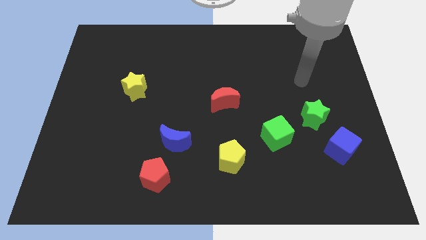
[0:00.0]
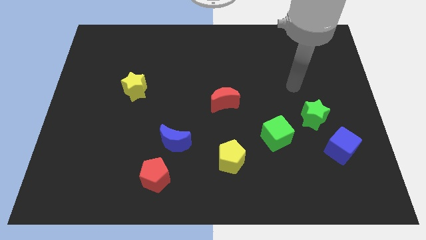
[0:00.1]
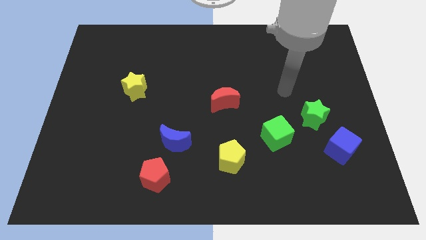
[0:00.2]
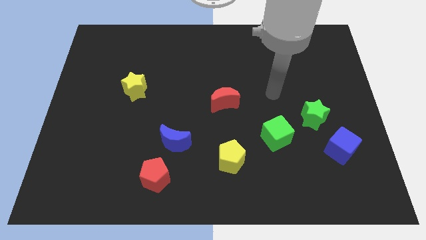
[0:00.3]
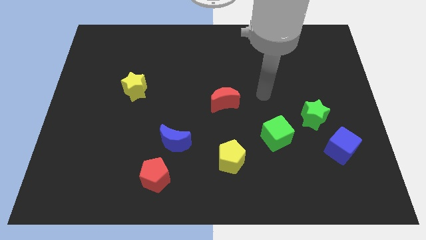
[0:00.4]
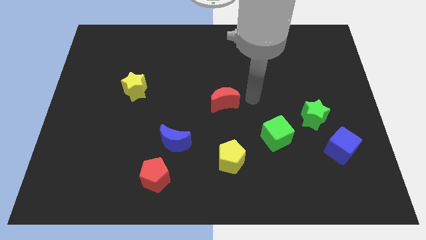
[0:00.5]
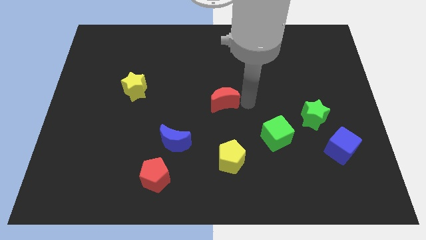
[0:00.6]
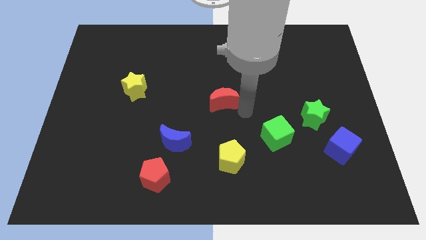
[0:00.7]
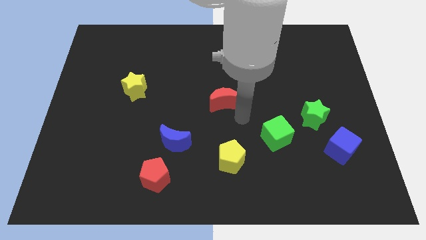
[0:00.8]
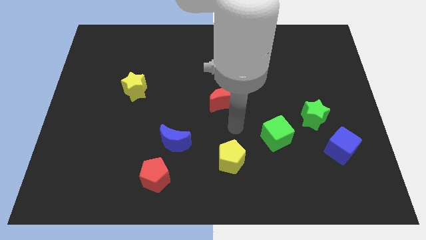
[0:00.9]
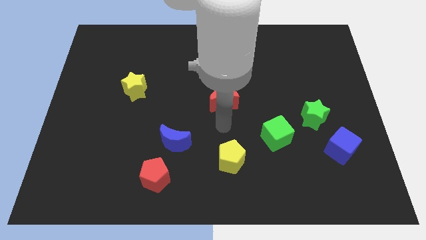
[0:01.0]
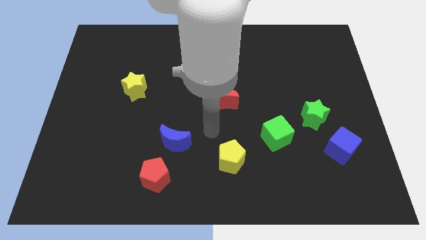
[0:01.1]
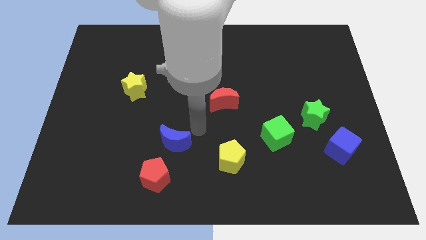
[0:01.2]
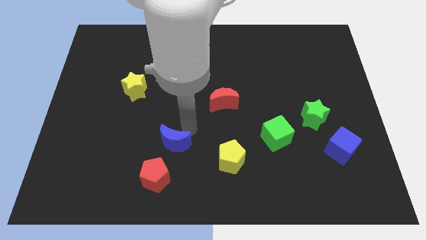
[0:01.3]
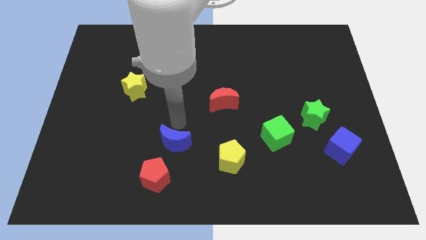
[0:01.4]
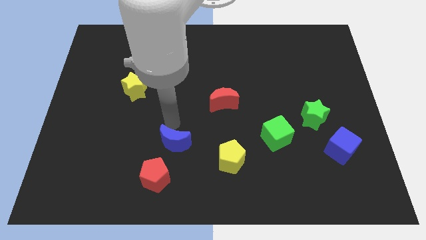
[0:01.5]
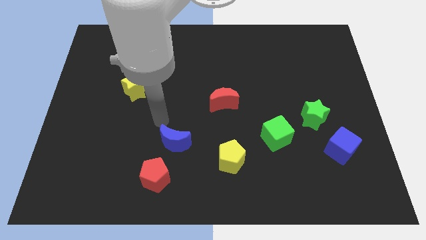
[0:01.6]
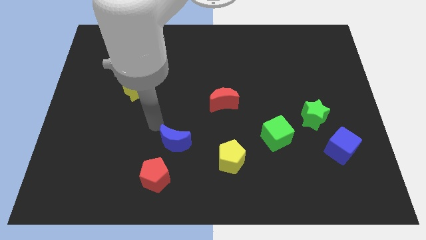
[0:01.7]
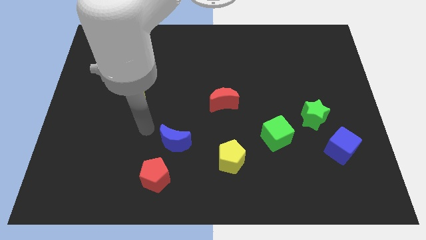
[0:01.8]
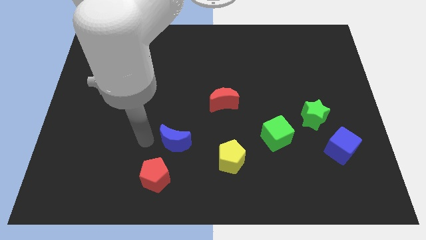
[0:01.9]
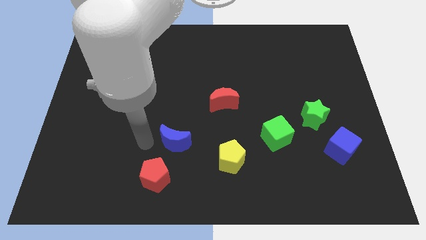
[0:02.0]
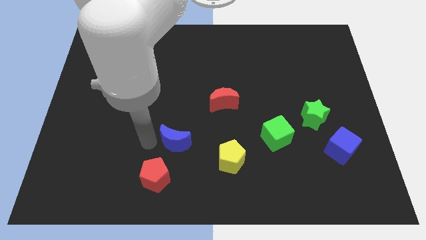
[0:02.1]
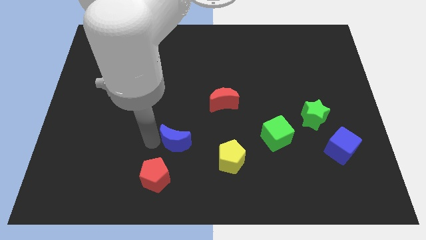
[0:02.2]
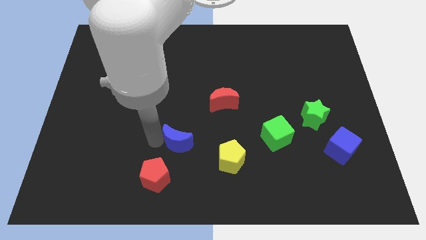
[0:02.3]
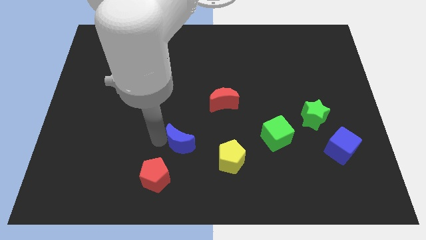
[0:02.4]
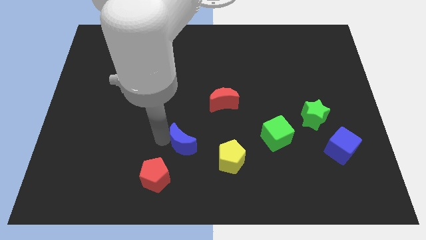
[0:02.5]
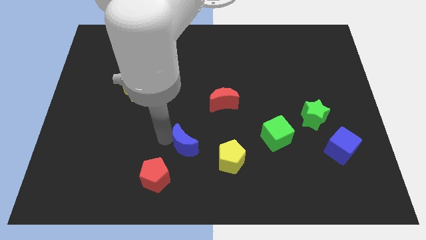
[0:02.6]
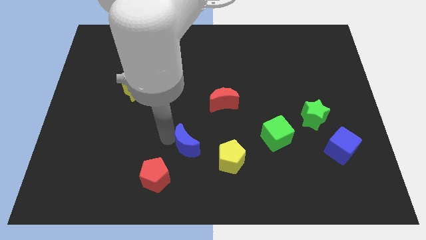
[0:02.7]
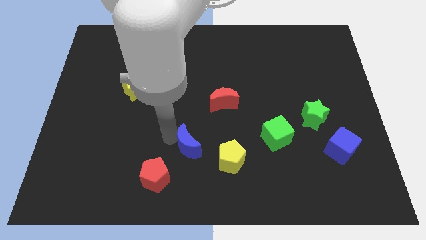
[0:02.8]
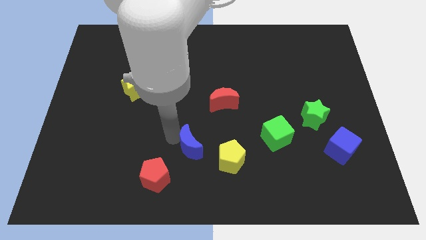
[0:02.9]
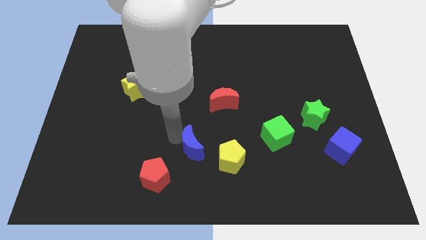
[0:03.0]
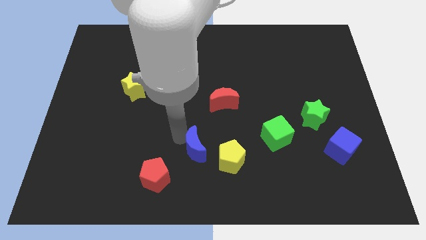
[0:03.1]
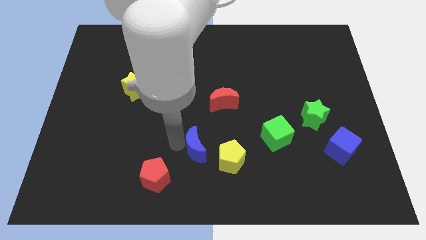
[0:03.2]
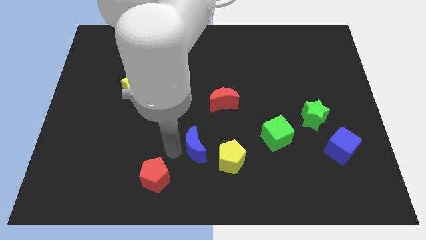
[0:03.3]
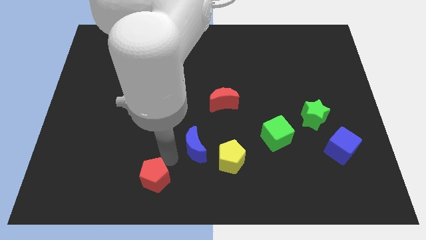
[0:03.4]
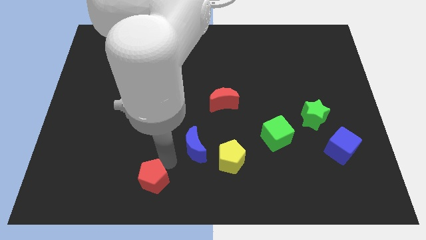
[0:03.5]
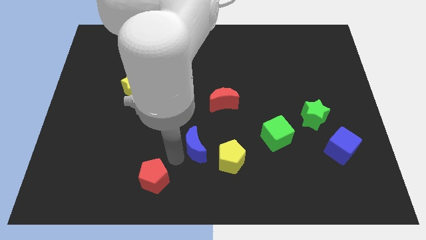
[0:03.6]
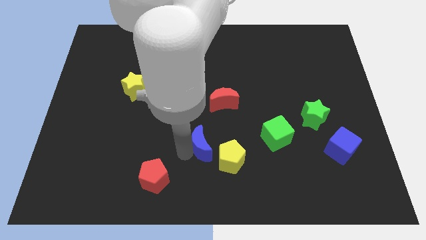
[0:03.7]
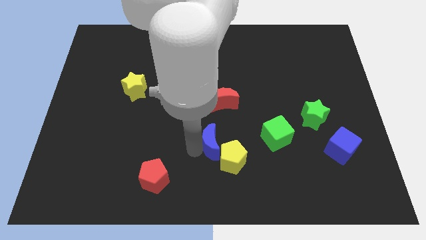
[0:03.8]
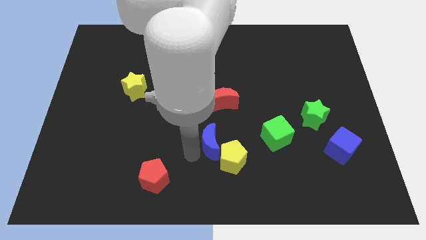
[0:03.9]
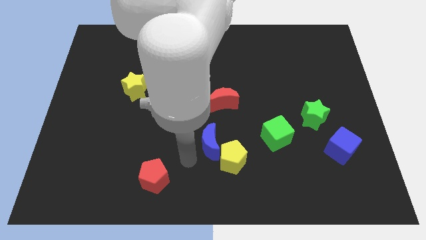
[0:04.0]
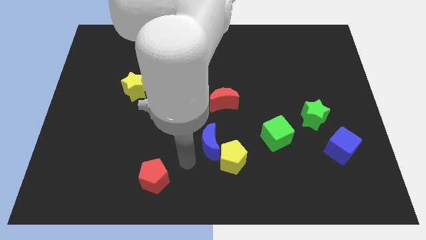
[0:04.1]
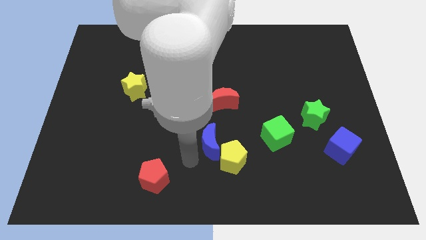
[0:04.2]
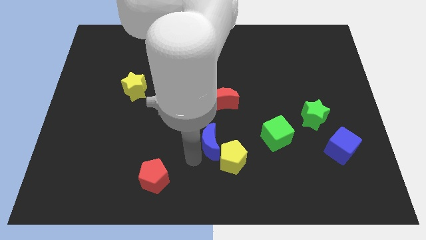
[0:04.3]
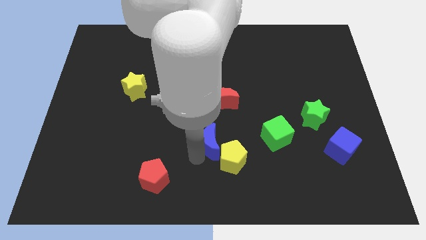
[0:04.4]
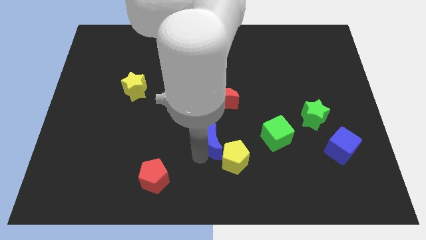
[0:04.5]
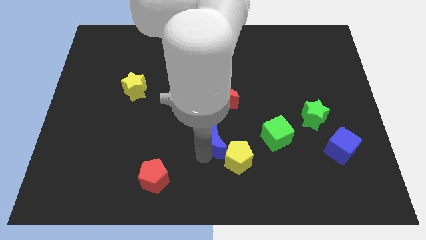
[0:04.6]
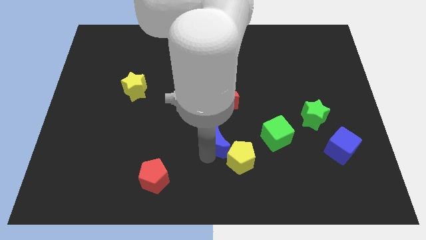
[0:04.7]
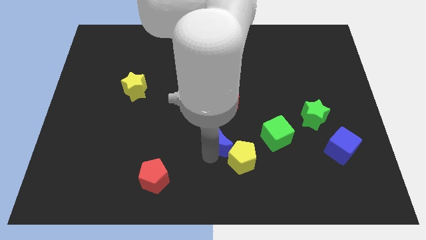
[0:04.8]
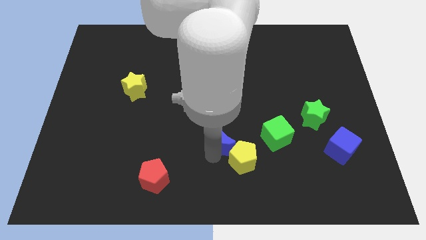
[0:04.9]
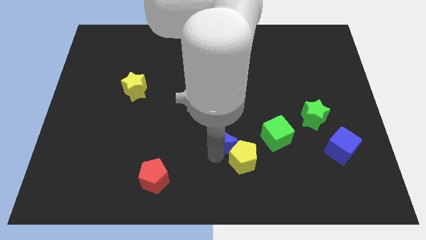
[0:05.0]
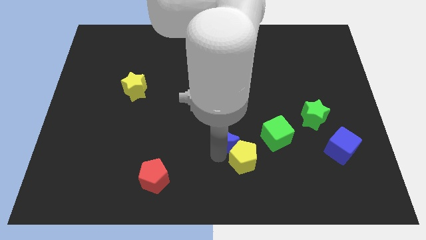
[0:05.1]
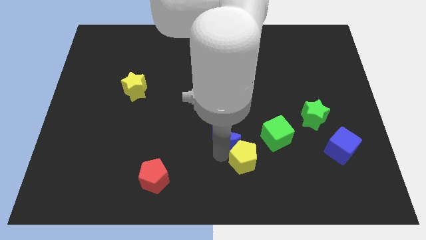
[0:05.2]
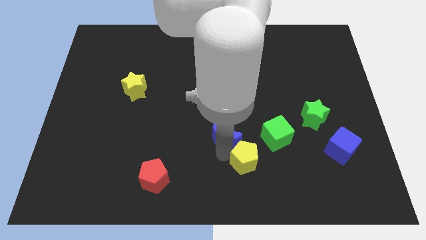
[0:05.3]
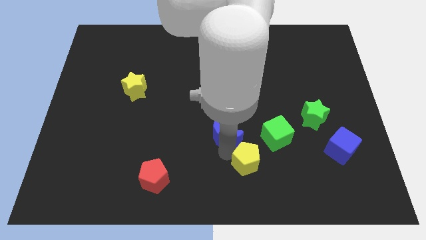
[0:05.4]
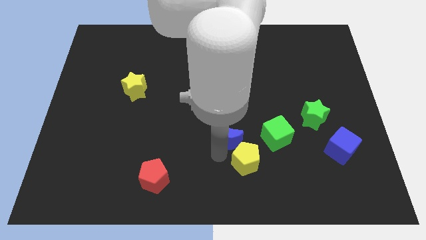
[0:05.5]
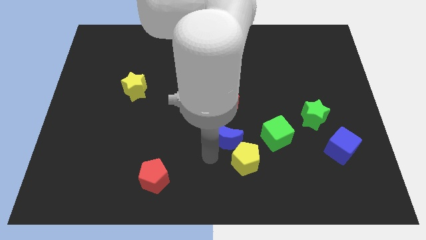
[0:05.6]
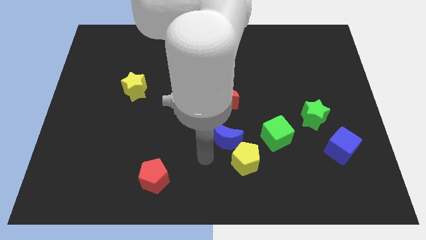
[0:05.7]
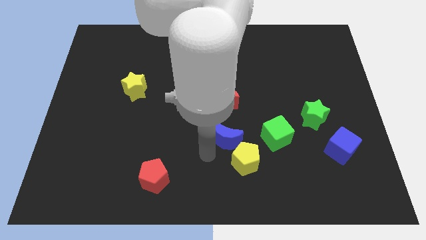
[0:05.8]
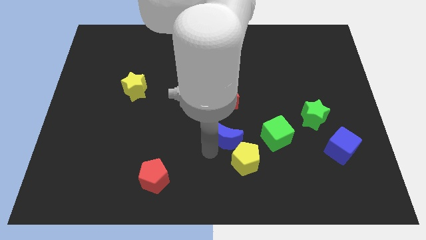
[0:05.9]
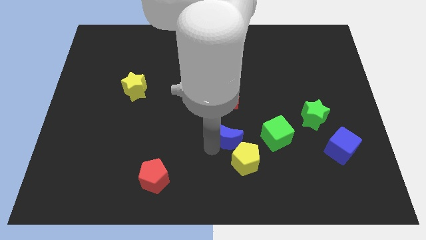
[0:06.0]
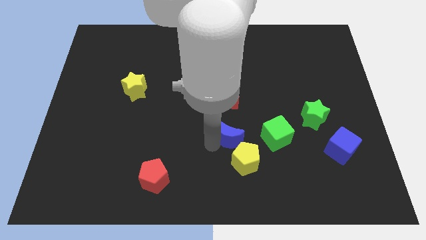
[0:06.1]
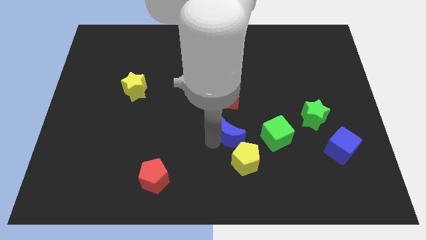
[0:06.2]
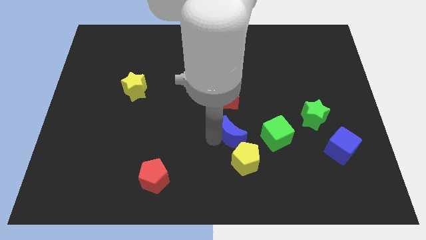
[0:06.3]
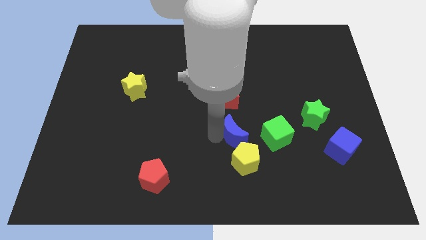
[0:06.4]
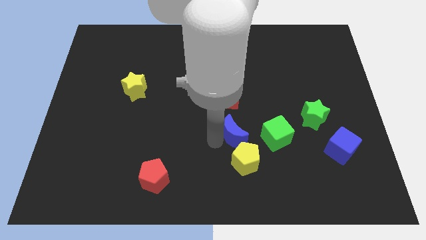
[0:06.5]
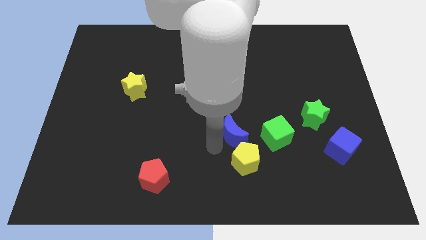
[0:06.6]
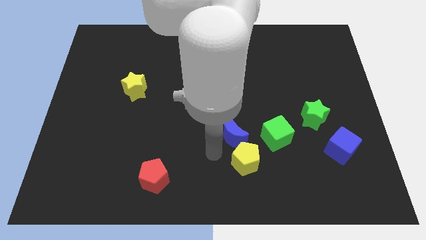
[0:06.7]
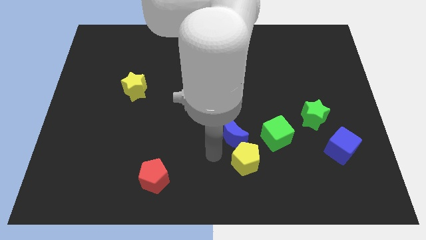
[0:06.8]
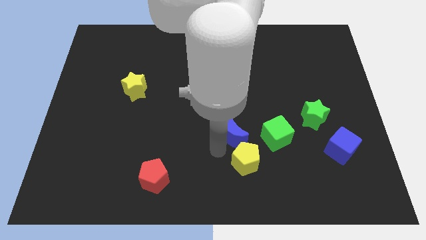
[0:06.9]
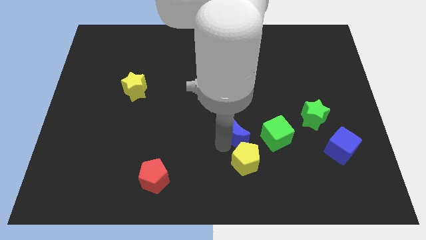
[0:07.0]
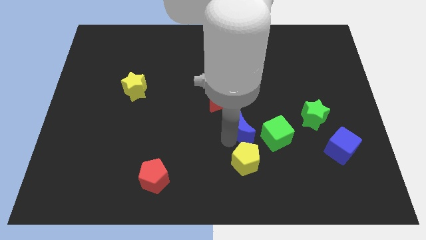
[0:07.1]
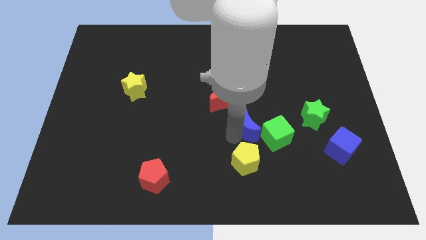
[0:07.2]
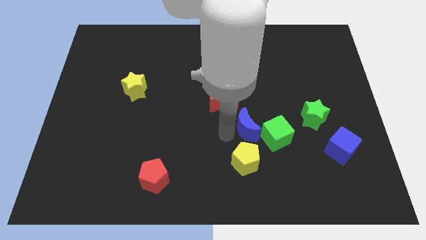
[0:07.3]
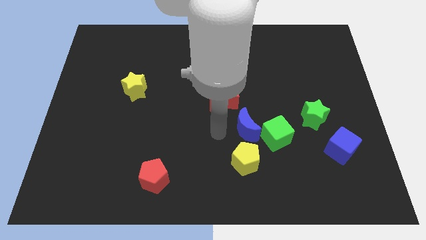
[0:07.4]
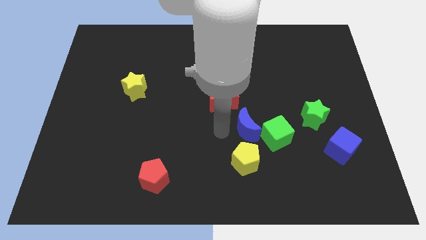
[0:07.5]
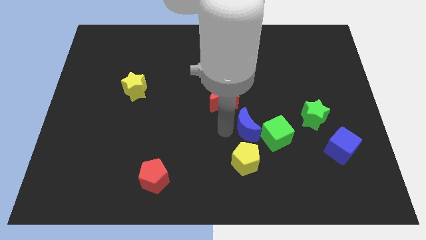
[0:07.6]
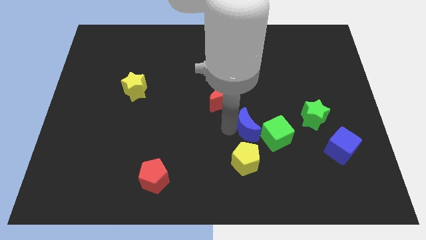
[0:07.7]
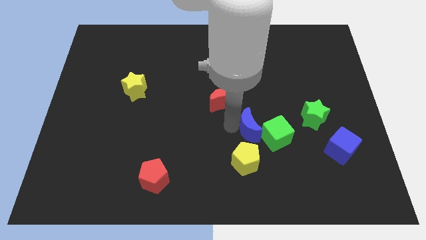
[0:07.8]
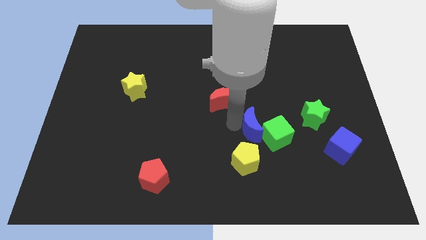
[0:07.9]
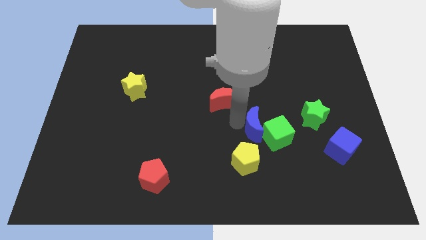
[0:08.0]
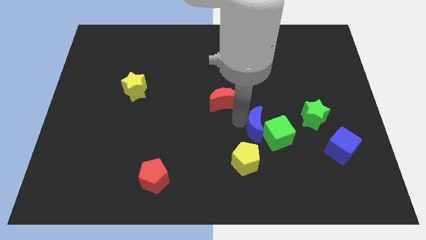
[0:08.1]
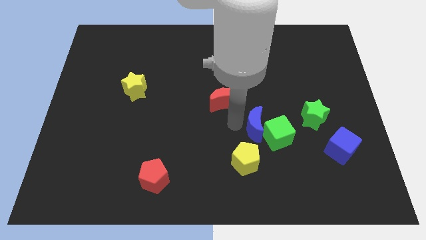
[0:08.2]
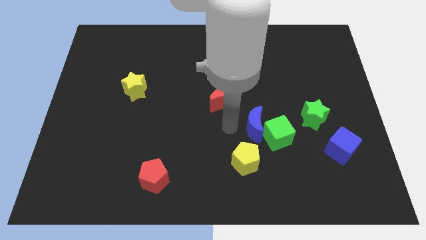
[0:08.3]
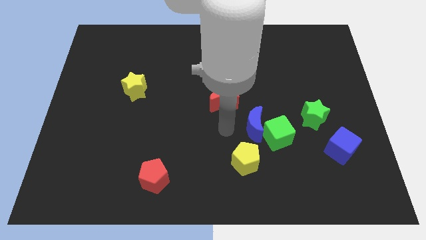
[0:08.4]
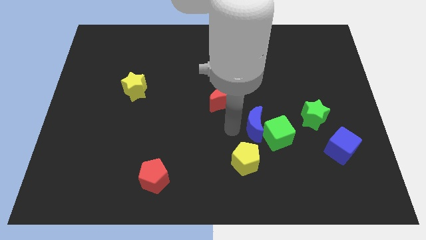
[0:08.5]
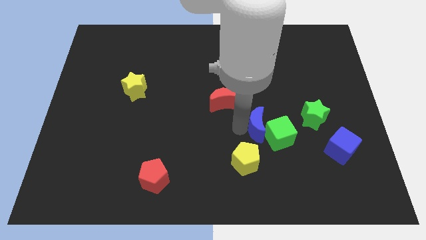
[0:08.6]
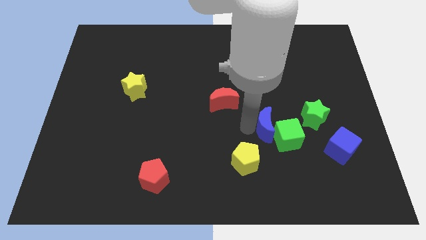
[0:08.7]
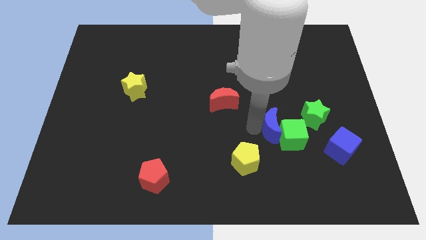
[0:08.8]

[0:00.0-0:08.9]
slide the blue moon to the right
